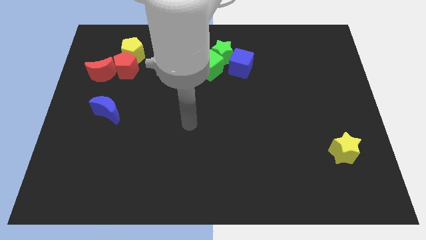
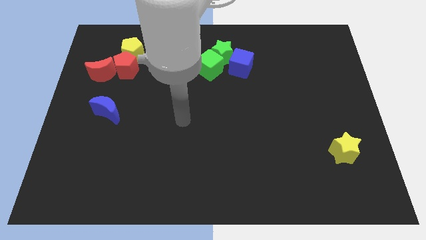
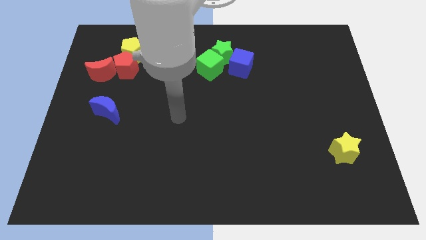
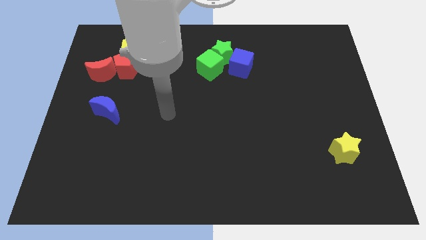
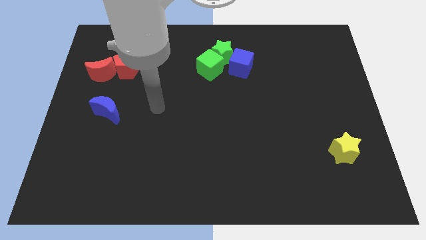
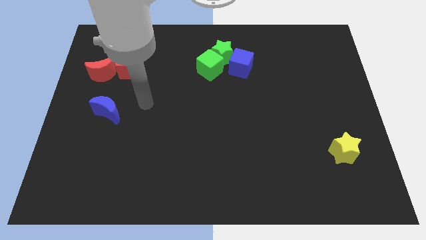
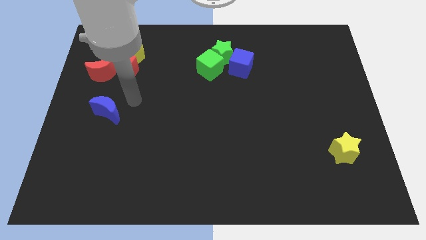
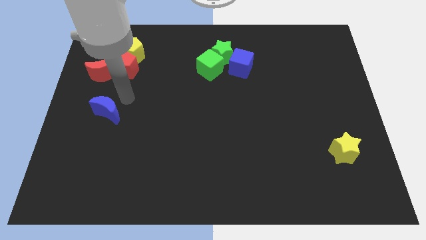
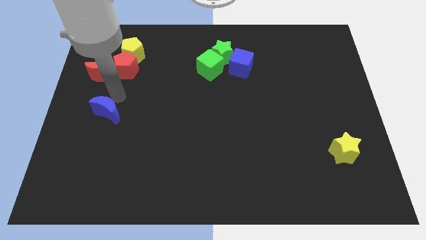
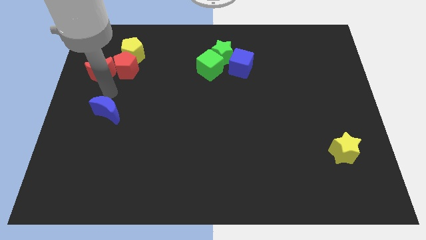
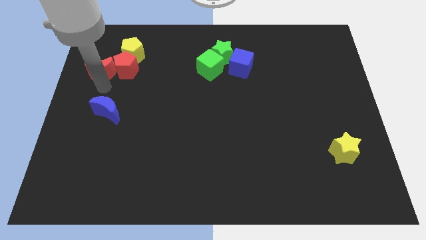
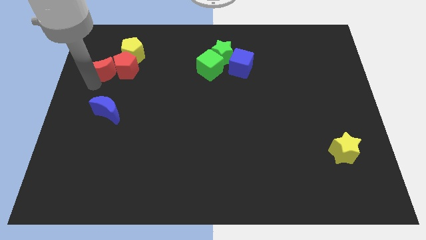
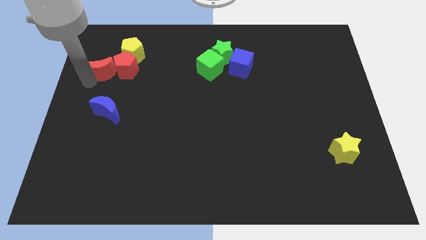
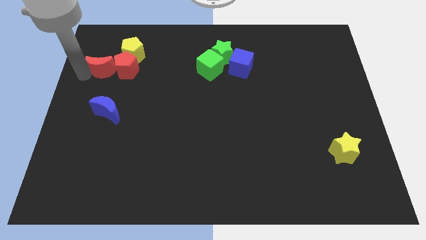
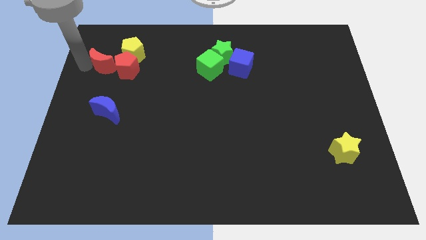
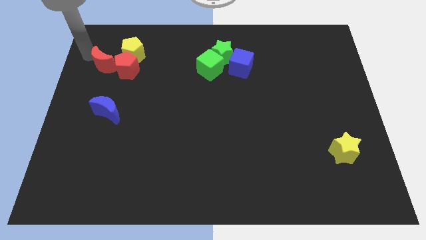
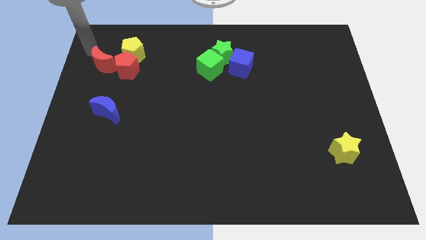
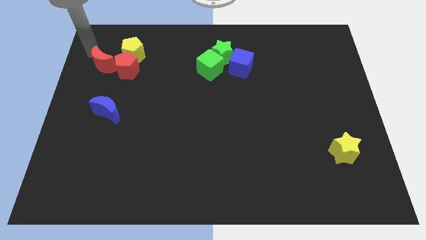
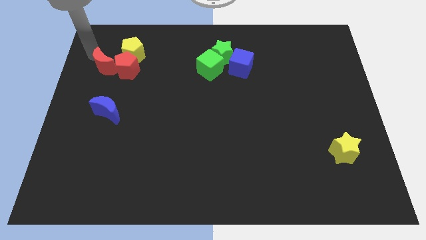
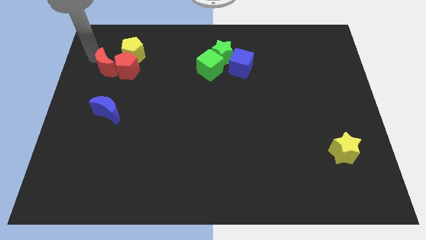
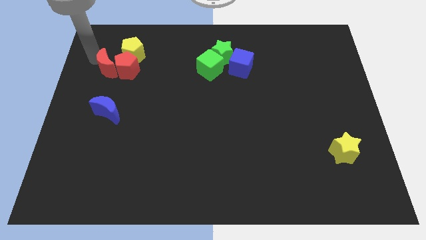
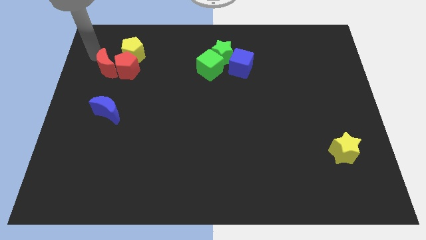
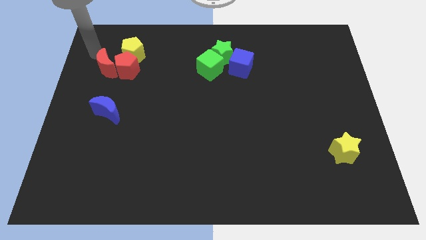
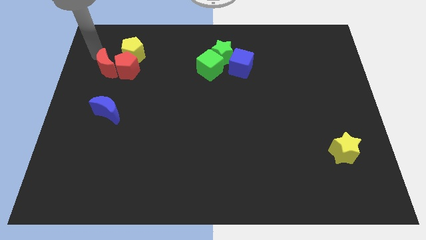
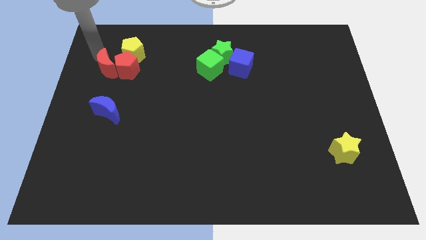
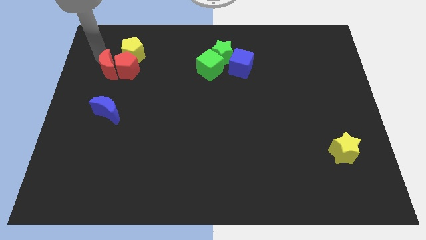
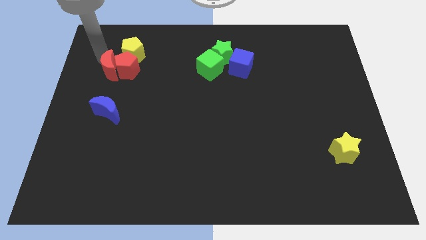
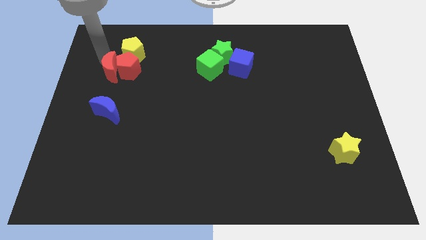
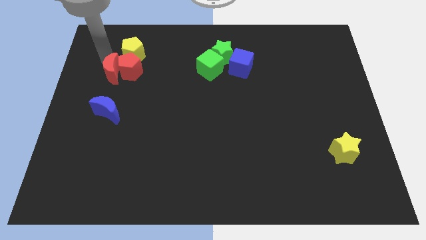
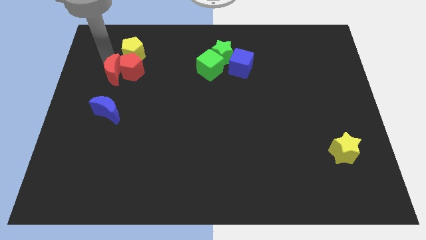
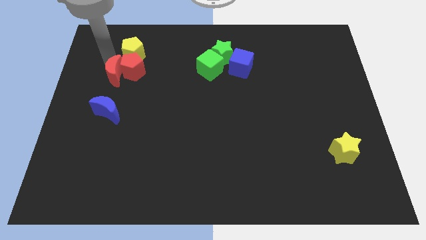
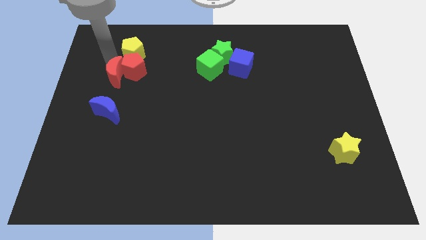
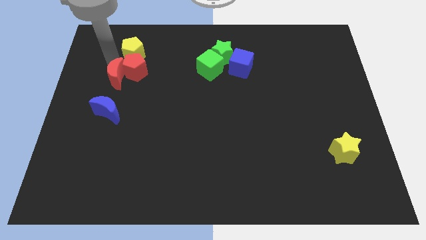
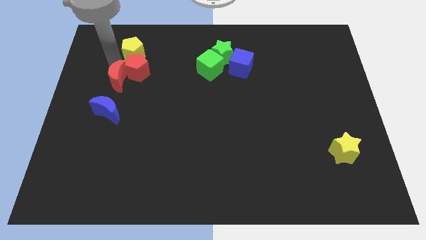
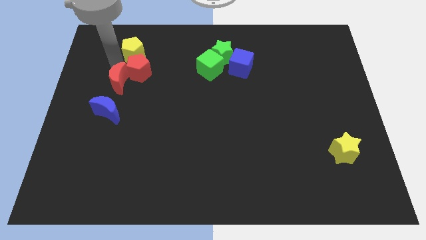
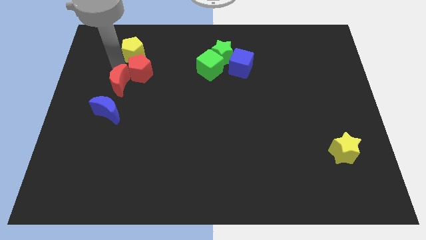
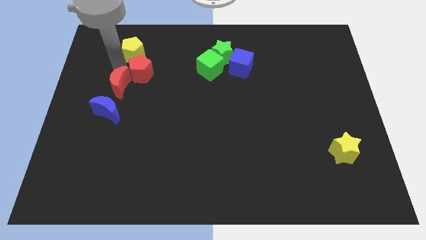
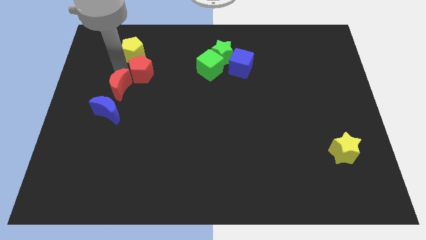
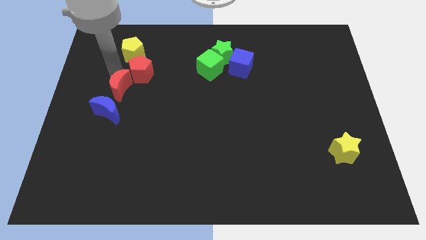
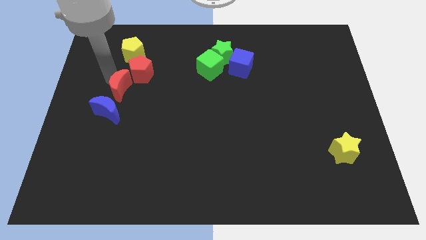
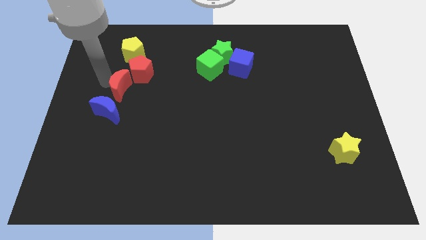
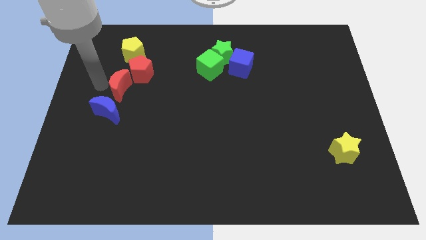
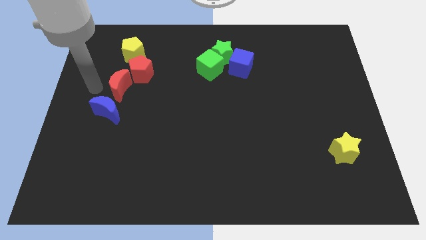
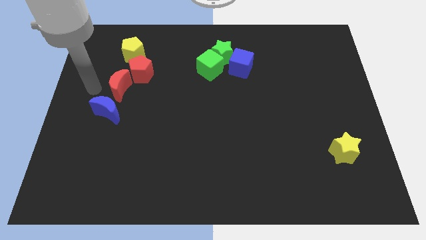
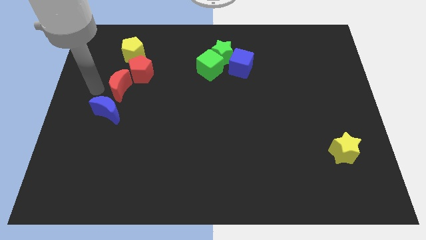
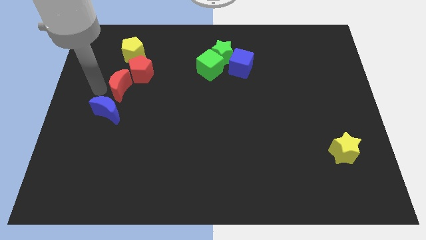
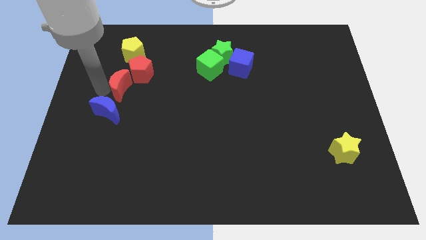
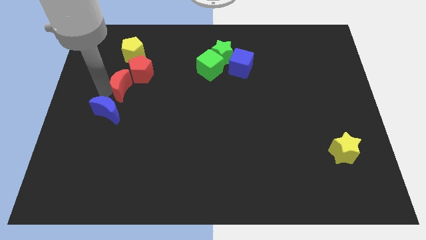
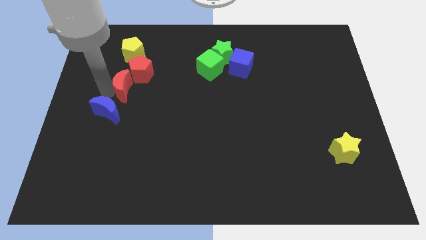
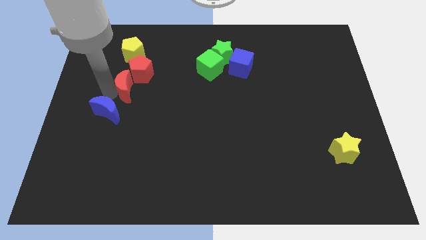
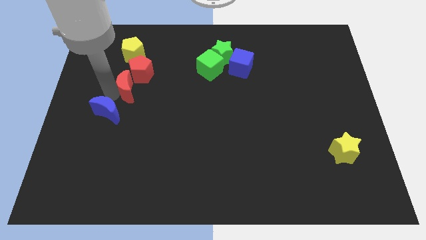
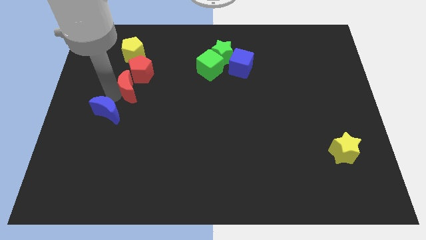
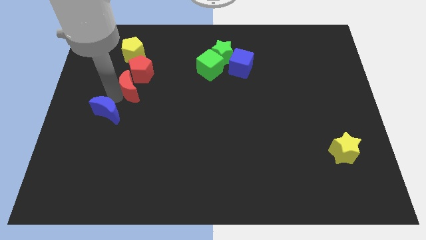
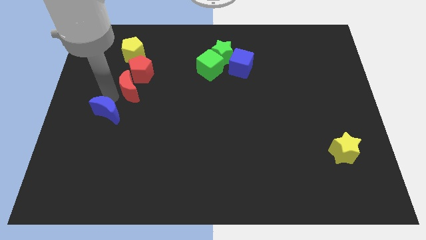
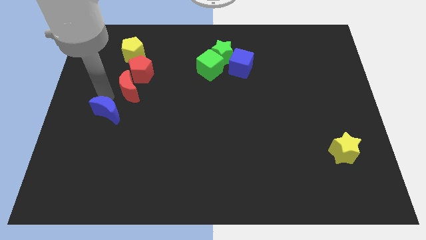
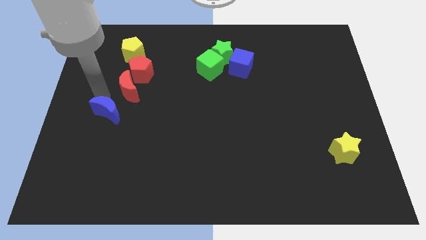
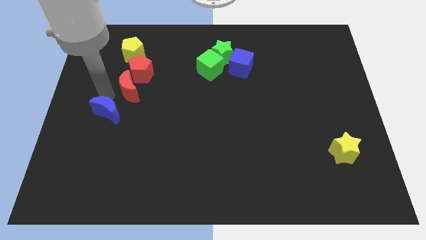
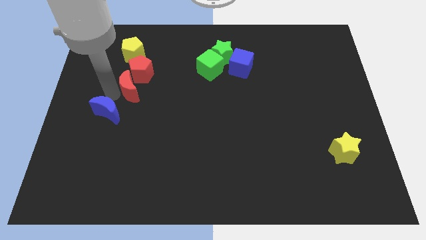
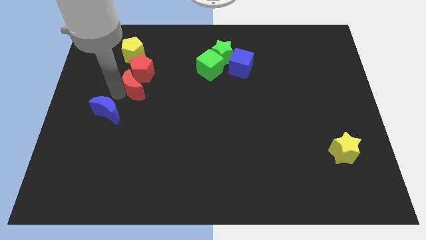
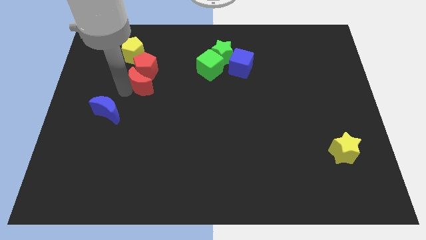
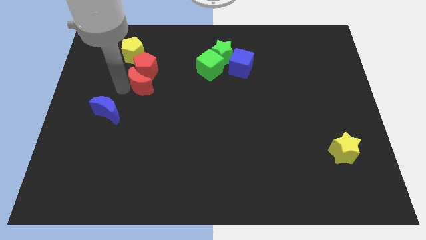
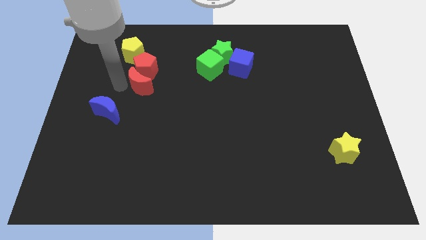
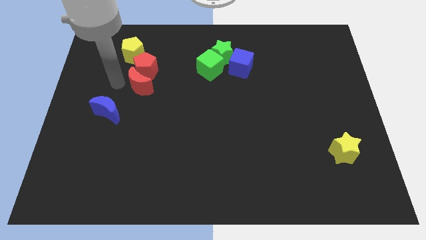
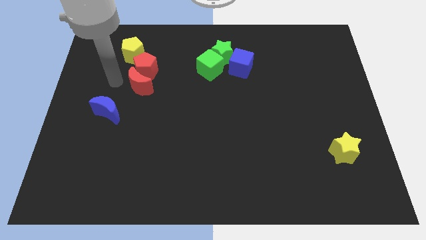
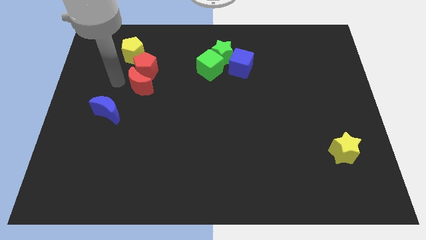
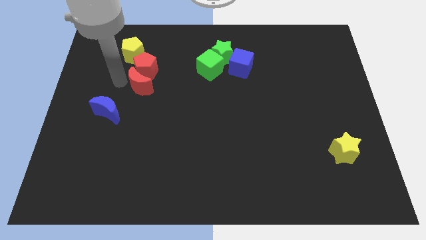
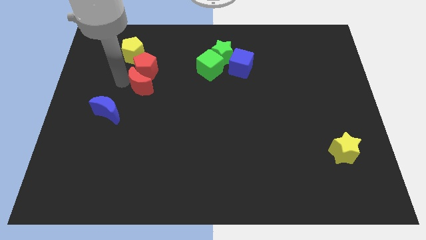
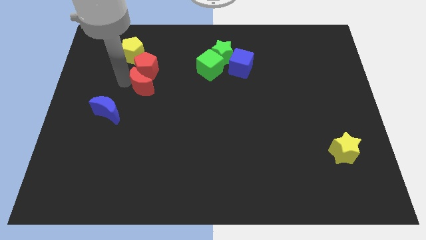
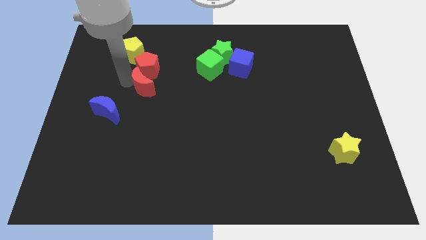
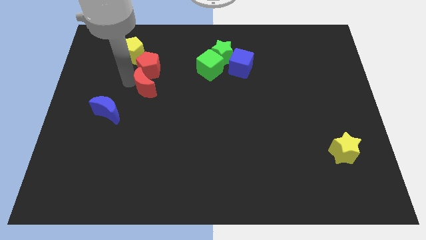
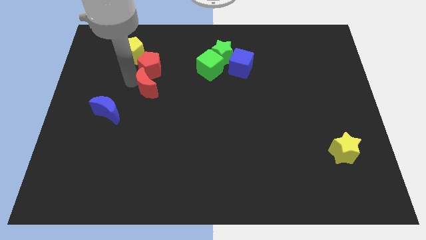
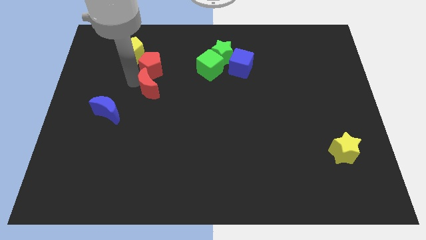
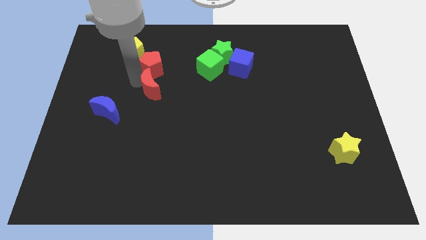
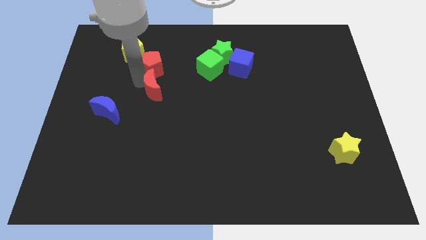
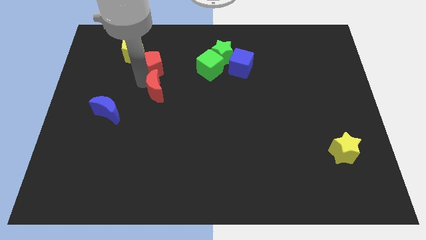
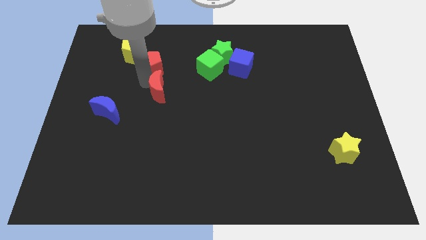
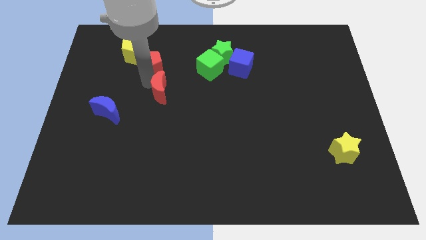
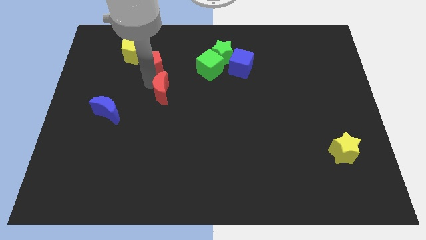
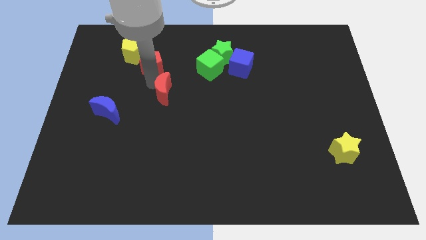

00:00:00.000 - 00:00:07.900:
slide the red moon to the center of the board
